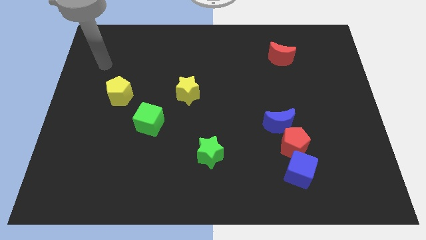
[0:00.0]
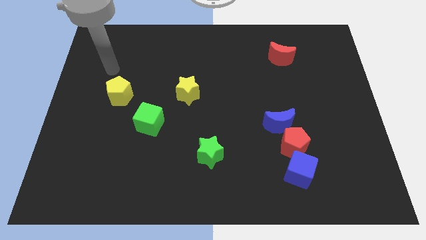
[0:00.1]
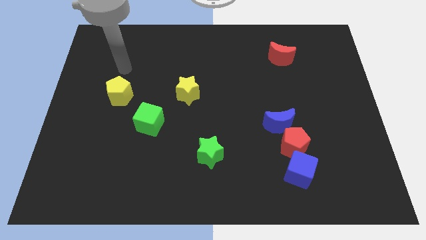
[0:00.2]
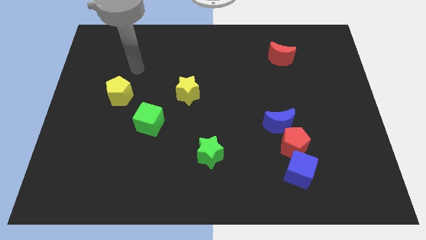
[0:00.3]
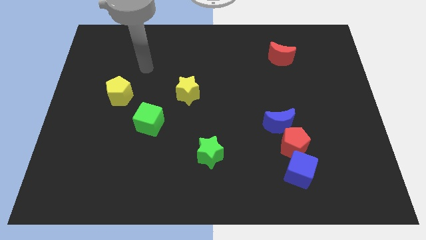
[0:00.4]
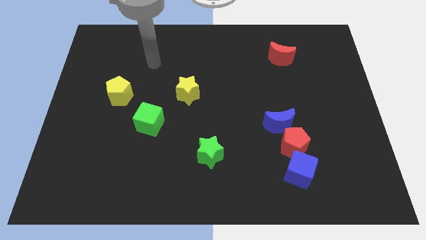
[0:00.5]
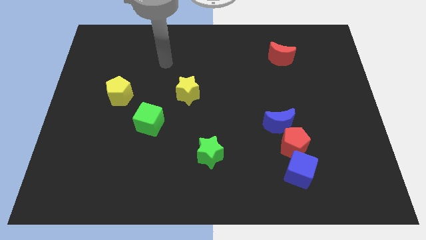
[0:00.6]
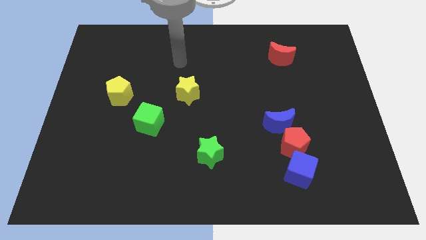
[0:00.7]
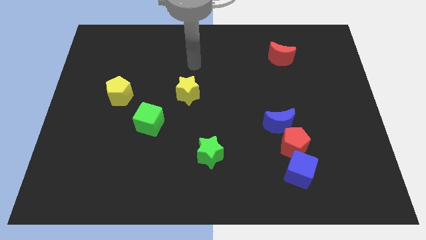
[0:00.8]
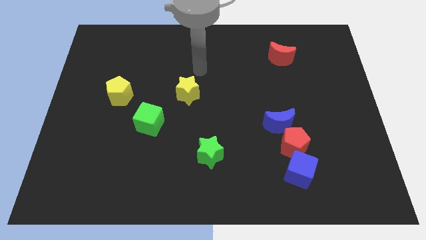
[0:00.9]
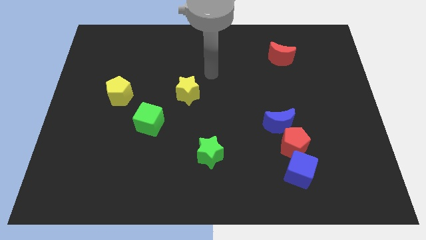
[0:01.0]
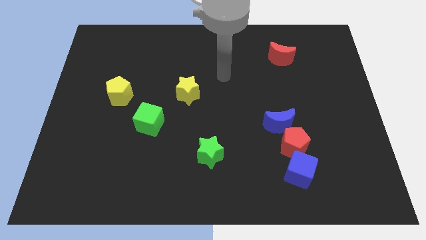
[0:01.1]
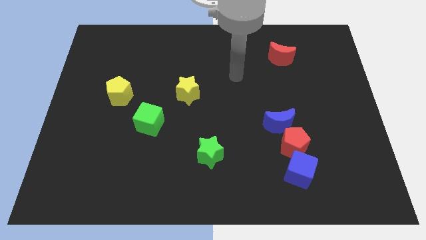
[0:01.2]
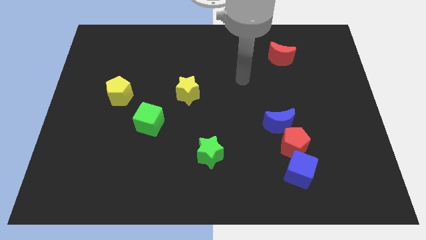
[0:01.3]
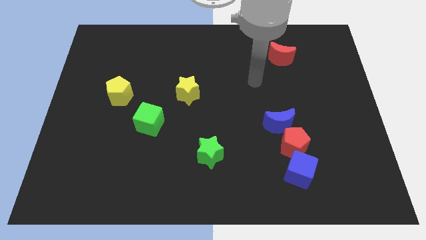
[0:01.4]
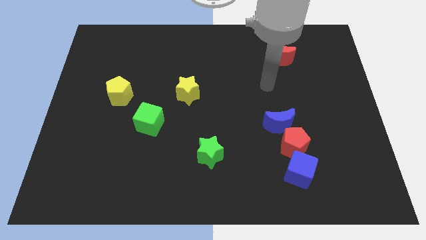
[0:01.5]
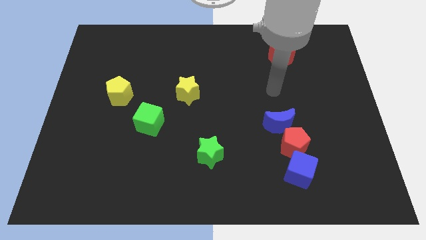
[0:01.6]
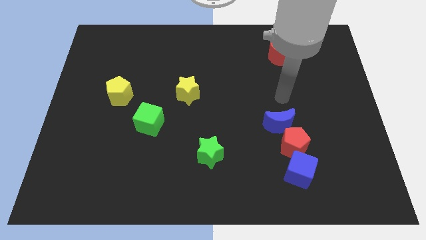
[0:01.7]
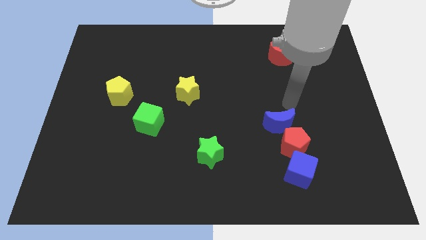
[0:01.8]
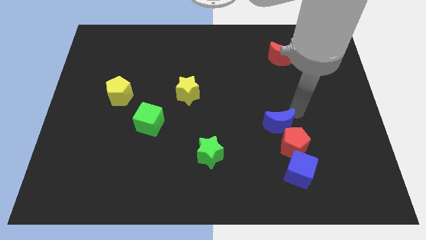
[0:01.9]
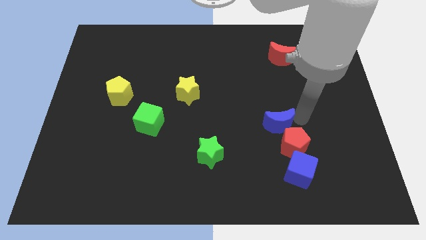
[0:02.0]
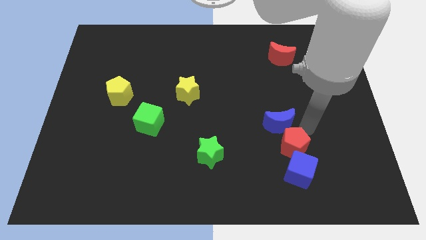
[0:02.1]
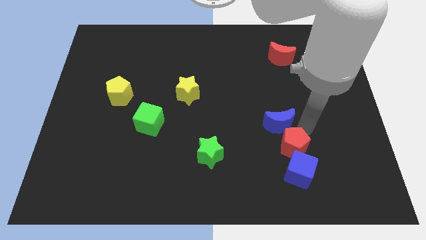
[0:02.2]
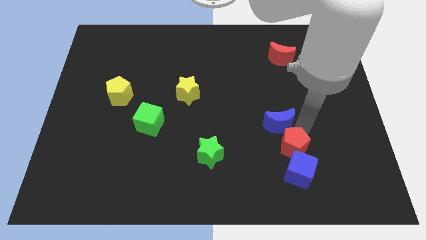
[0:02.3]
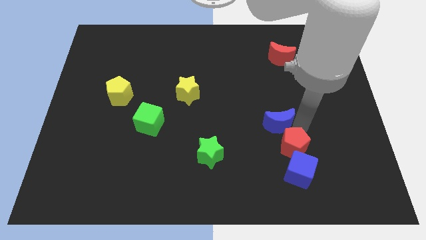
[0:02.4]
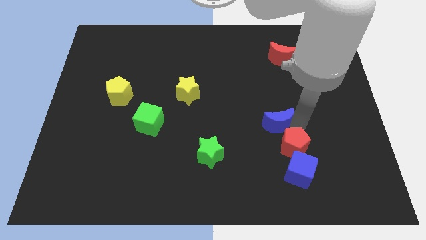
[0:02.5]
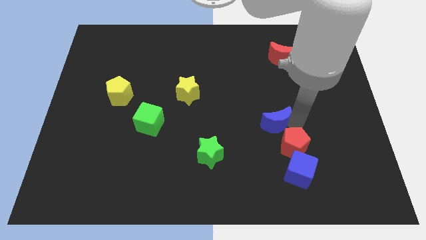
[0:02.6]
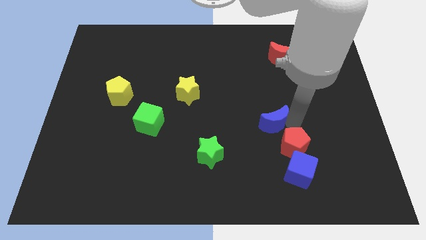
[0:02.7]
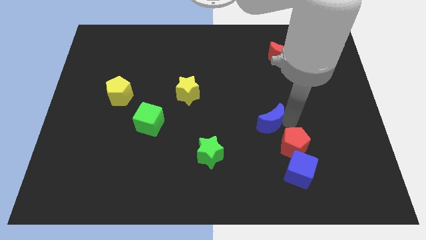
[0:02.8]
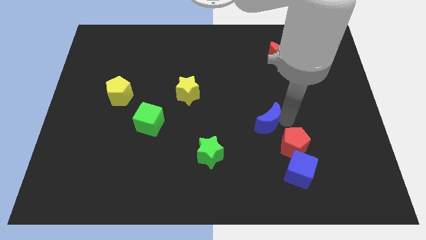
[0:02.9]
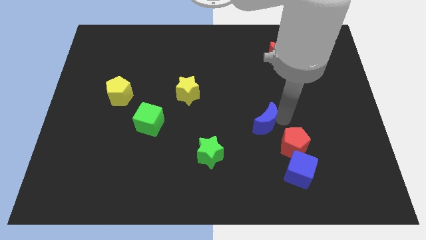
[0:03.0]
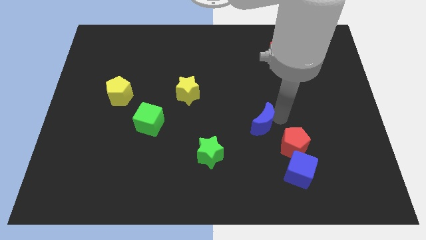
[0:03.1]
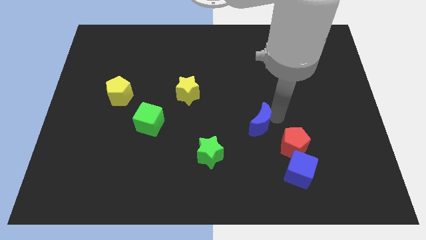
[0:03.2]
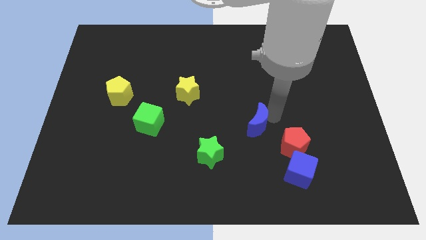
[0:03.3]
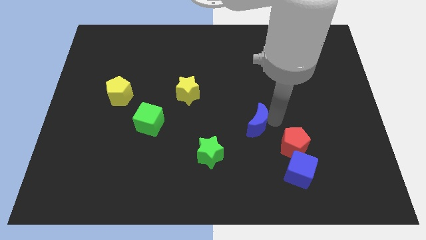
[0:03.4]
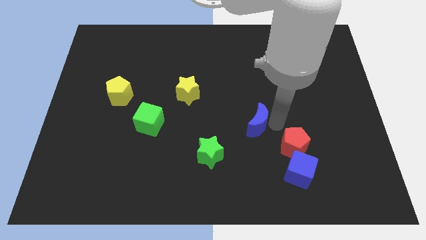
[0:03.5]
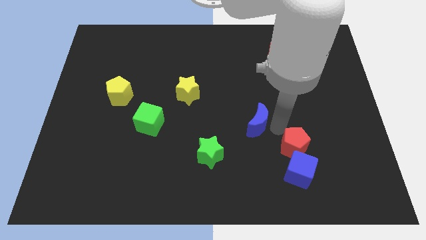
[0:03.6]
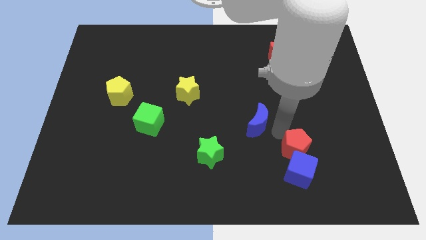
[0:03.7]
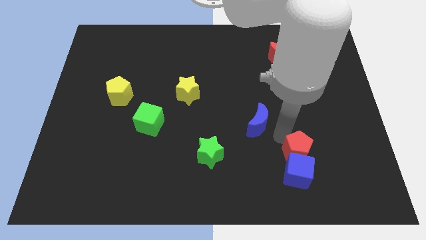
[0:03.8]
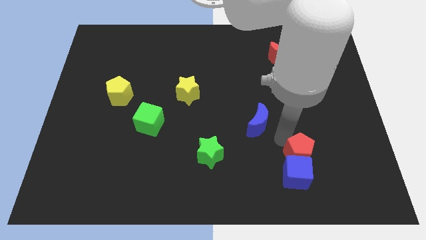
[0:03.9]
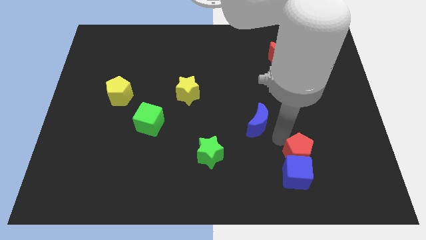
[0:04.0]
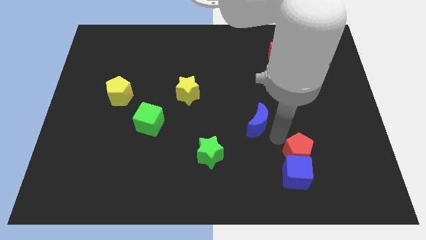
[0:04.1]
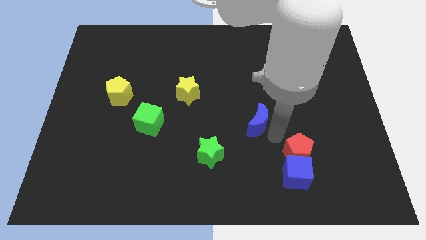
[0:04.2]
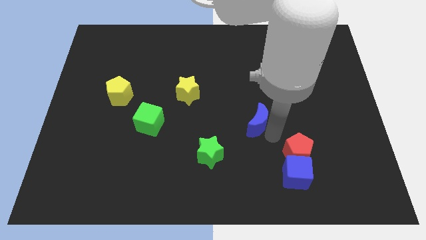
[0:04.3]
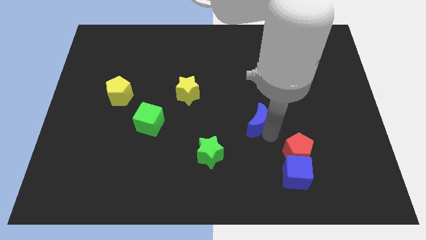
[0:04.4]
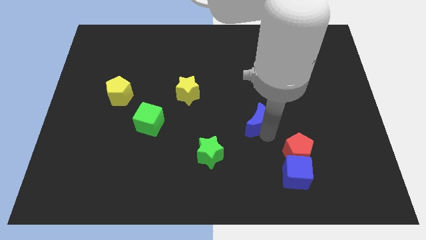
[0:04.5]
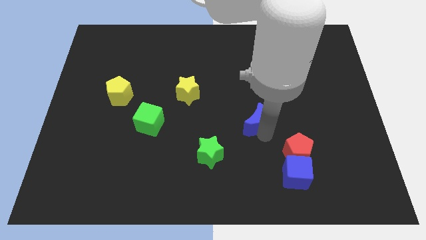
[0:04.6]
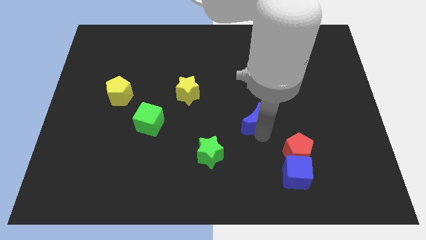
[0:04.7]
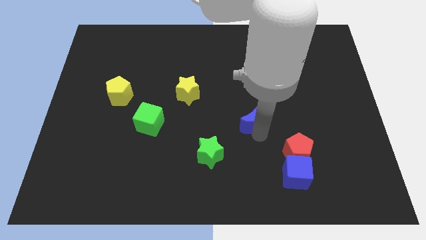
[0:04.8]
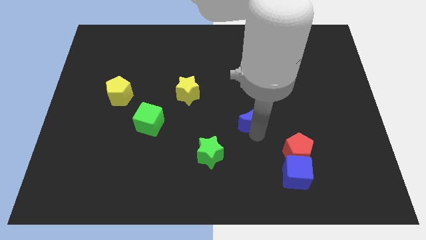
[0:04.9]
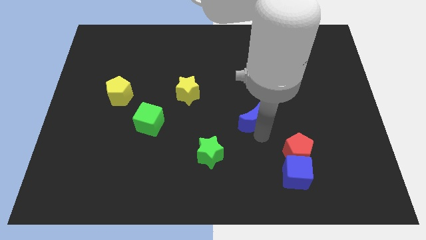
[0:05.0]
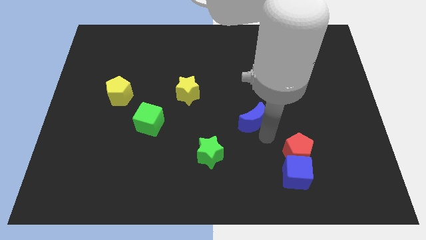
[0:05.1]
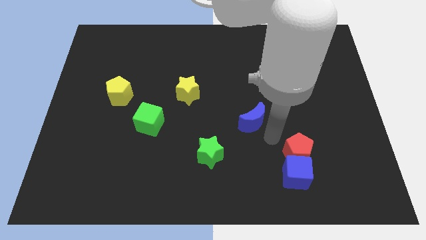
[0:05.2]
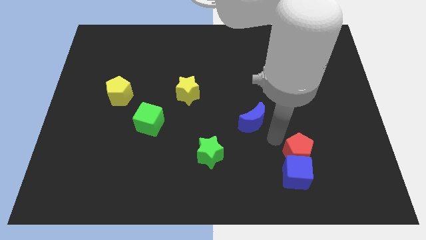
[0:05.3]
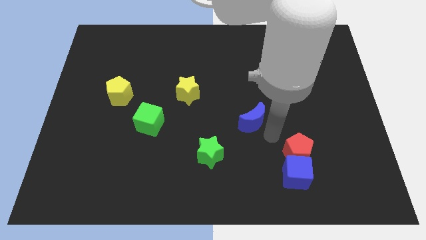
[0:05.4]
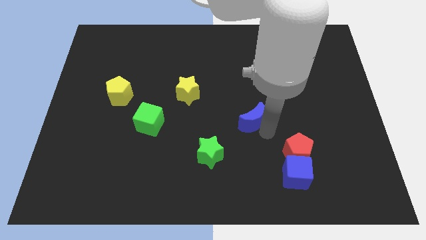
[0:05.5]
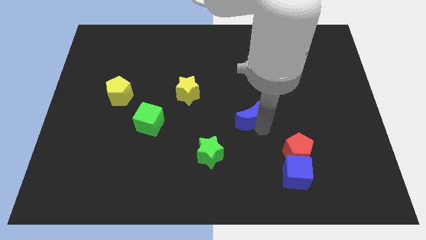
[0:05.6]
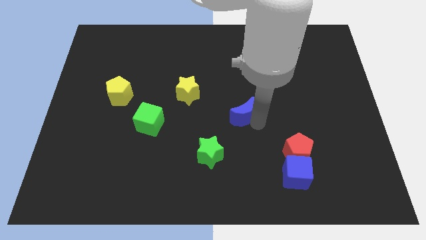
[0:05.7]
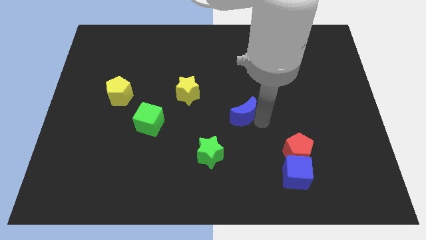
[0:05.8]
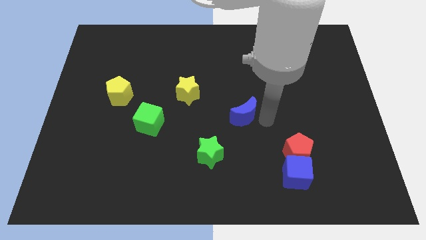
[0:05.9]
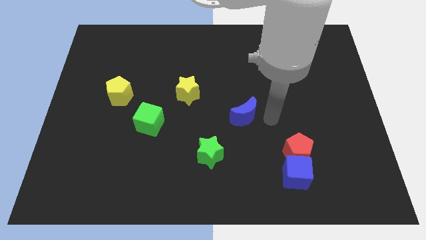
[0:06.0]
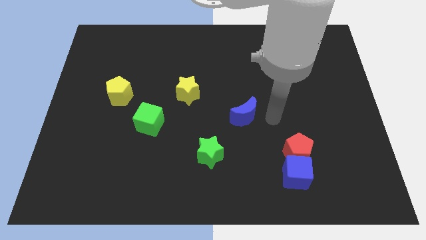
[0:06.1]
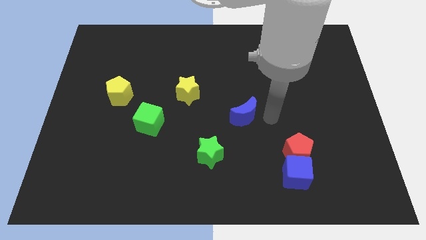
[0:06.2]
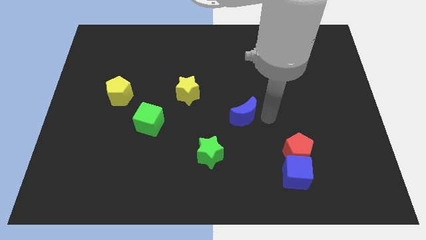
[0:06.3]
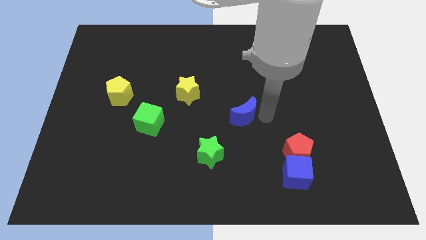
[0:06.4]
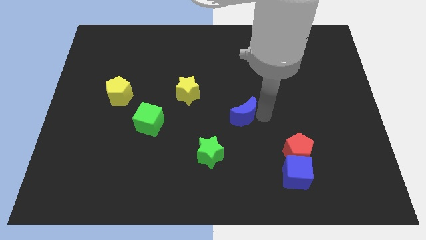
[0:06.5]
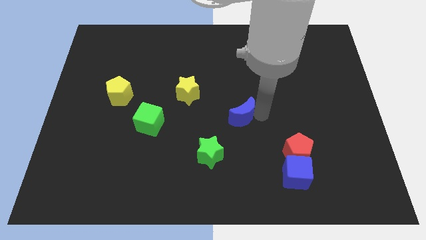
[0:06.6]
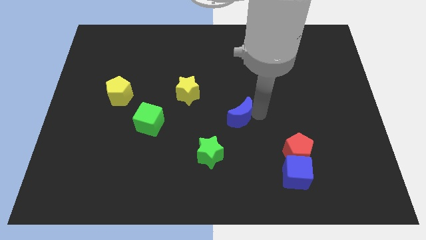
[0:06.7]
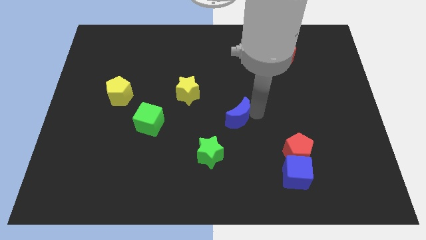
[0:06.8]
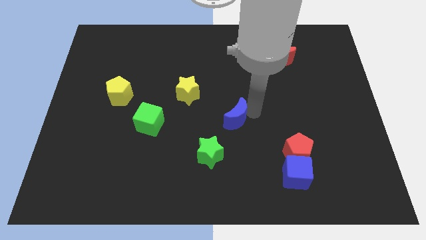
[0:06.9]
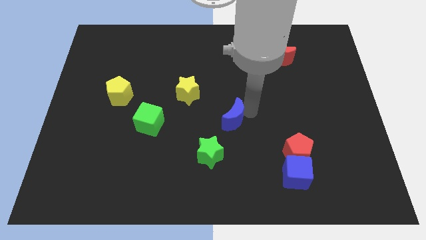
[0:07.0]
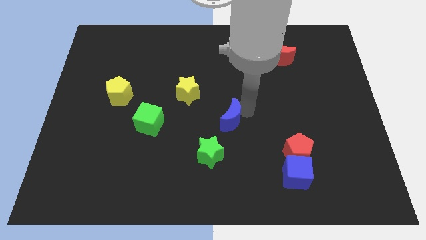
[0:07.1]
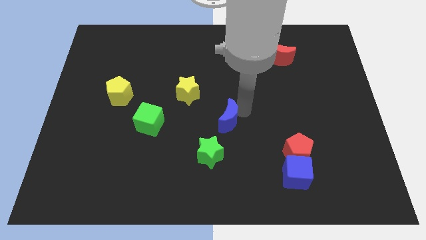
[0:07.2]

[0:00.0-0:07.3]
slide the blue moon above the green star

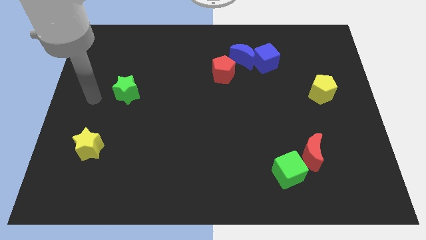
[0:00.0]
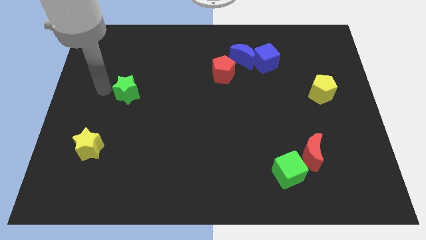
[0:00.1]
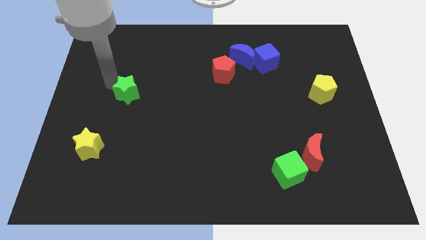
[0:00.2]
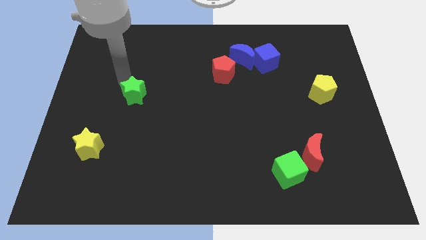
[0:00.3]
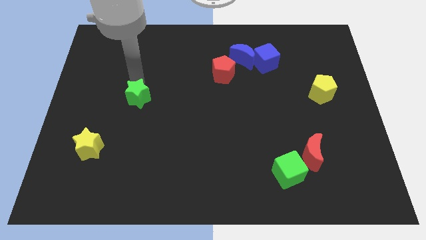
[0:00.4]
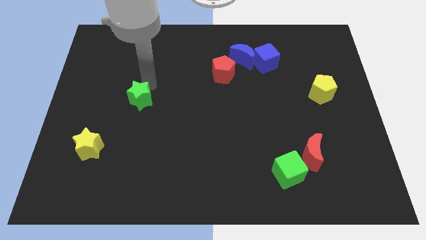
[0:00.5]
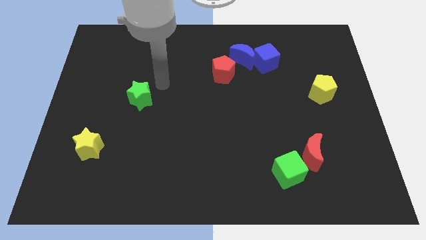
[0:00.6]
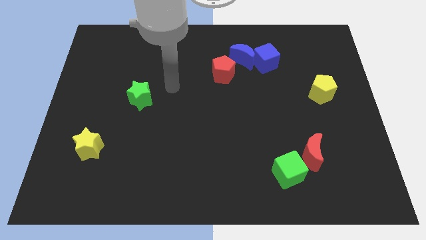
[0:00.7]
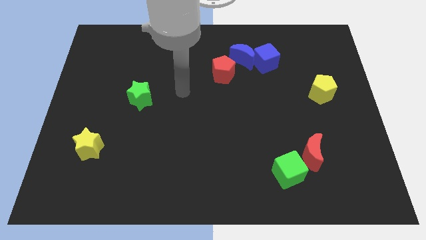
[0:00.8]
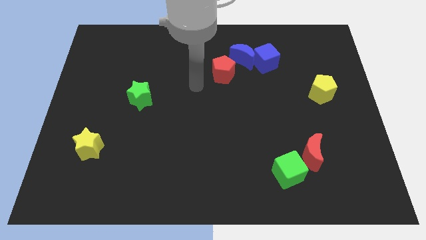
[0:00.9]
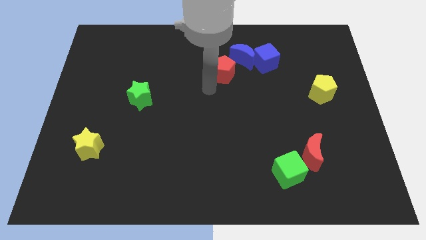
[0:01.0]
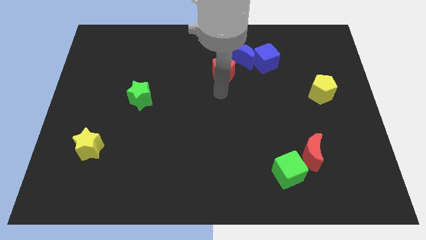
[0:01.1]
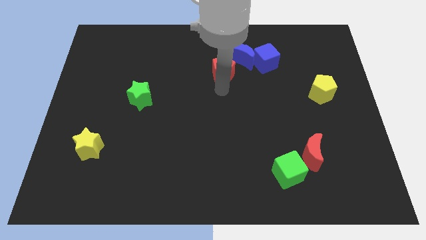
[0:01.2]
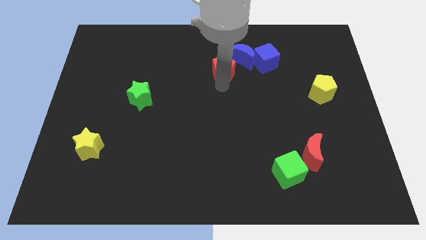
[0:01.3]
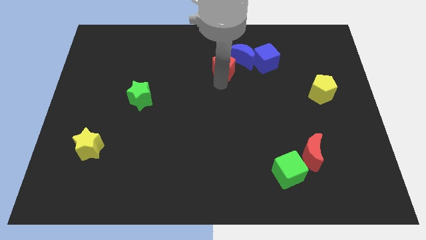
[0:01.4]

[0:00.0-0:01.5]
put the red pentagon left of the blue moon
